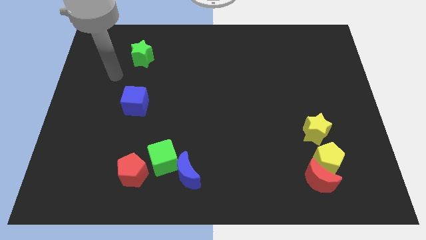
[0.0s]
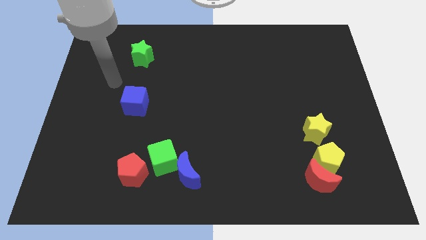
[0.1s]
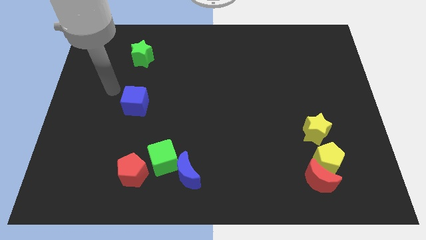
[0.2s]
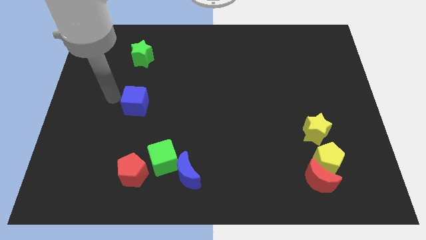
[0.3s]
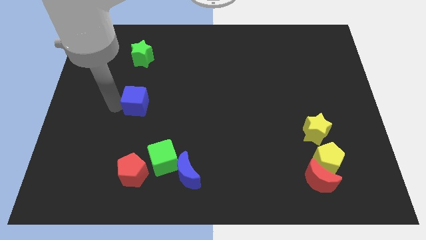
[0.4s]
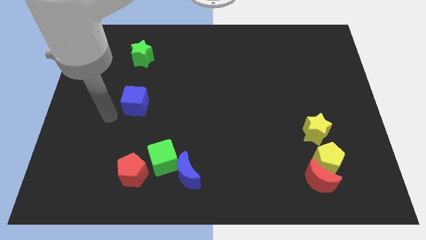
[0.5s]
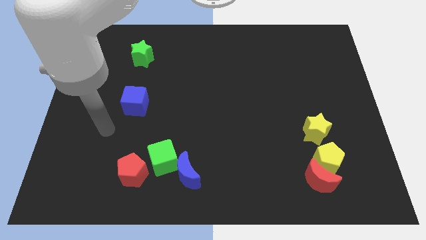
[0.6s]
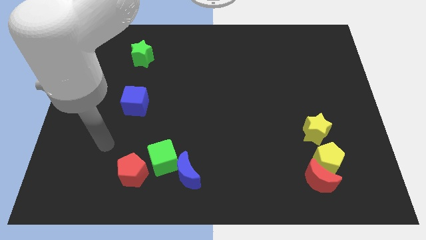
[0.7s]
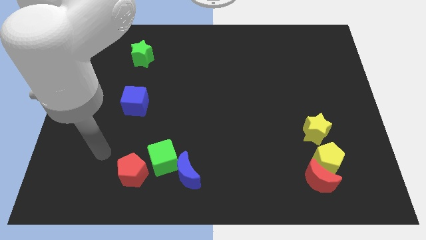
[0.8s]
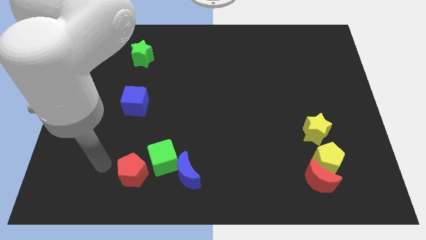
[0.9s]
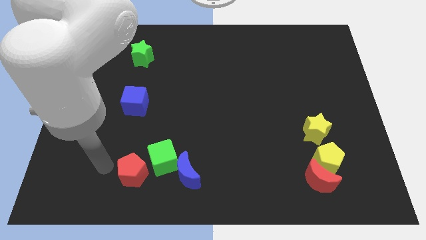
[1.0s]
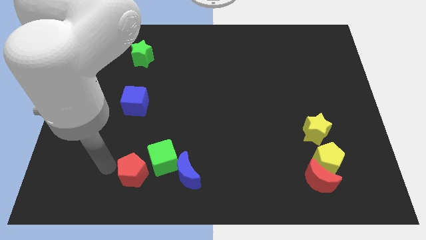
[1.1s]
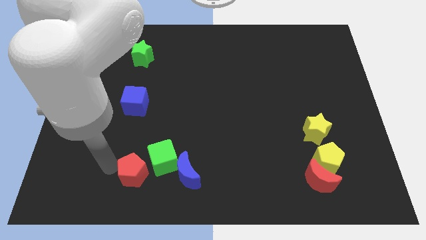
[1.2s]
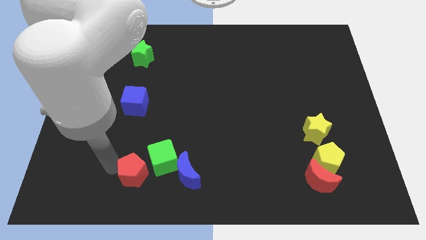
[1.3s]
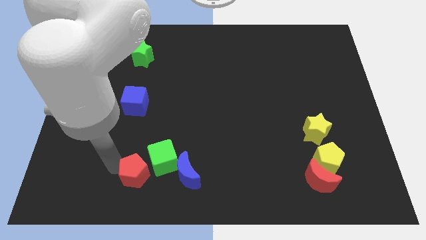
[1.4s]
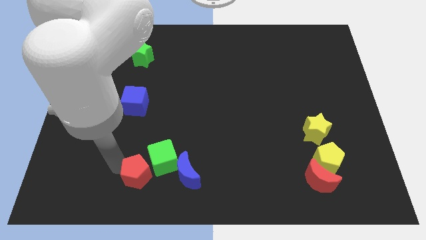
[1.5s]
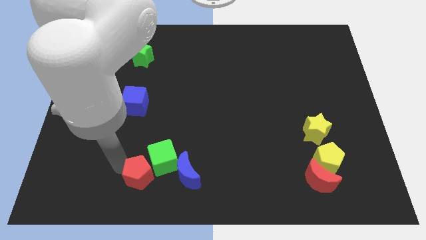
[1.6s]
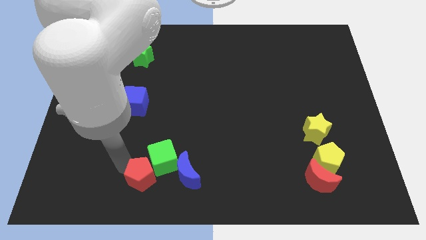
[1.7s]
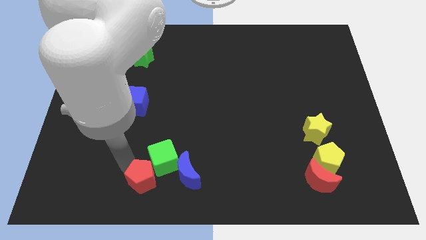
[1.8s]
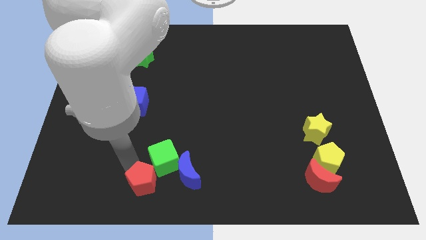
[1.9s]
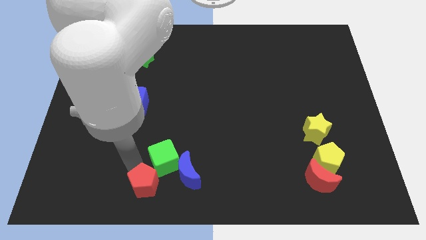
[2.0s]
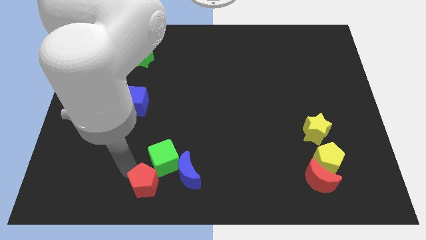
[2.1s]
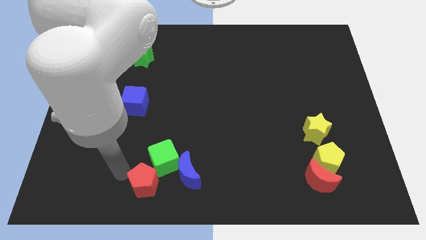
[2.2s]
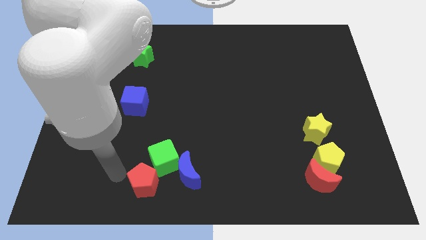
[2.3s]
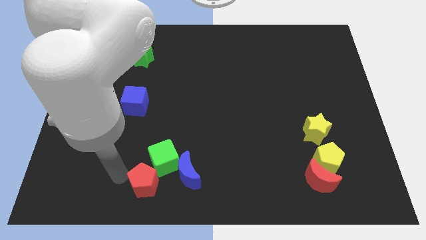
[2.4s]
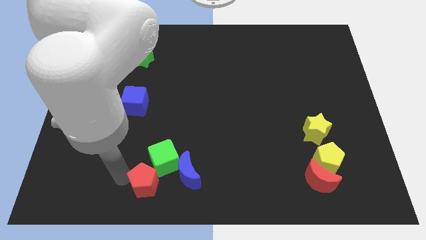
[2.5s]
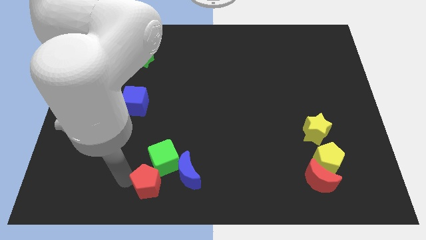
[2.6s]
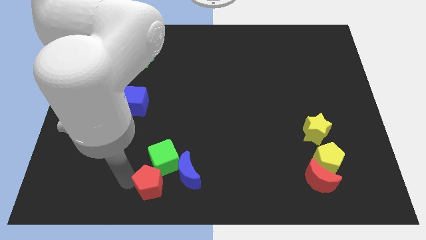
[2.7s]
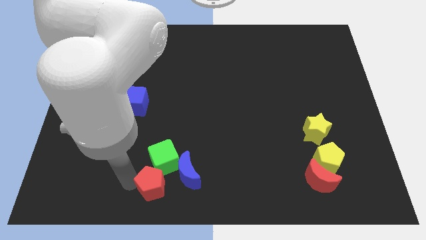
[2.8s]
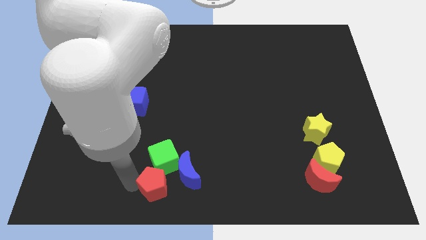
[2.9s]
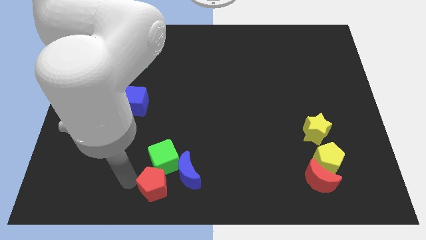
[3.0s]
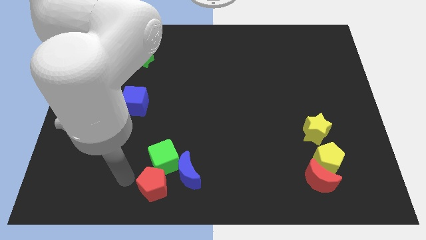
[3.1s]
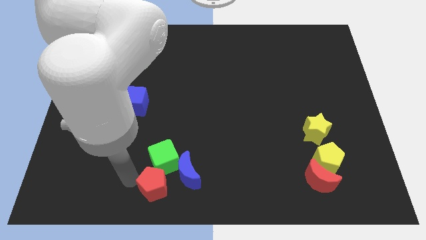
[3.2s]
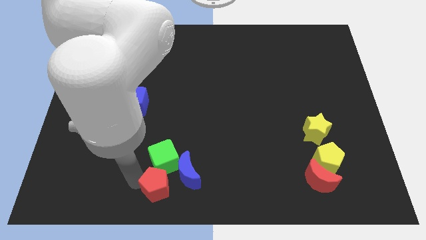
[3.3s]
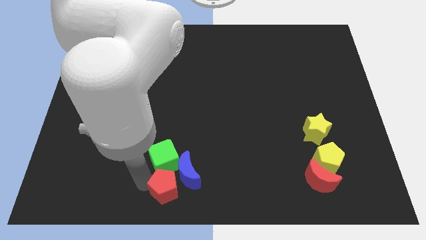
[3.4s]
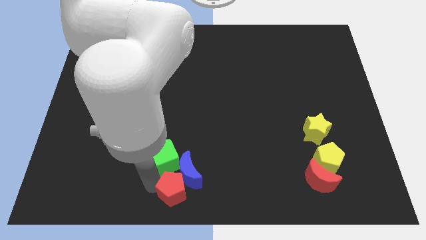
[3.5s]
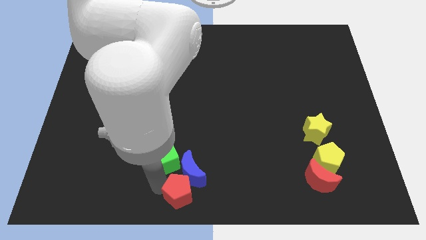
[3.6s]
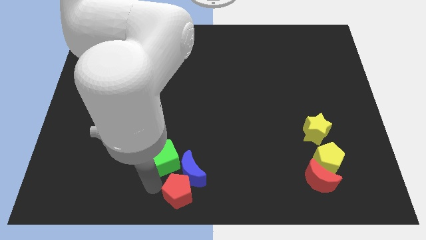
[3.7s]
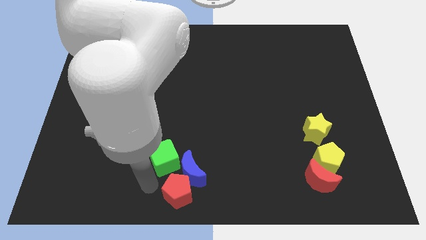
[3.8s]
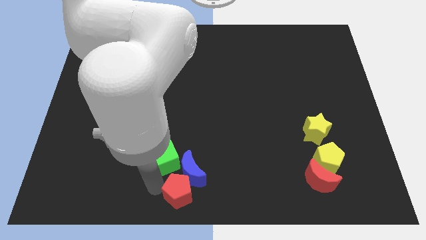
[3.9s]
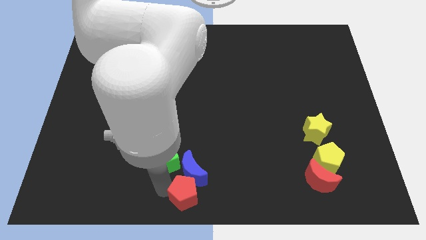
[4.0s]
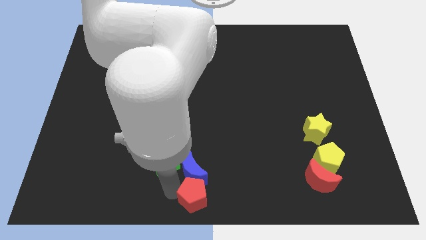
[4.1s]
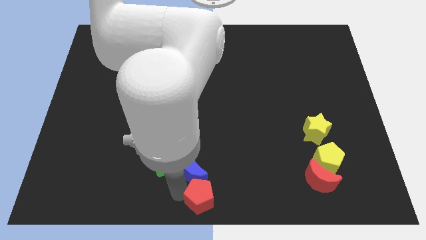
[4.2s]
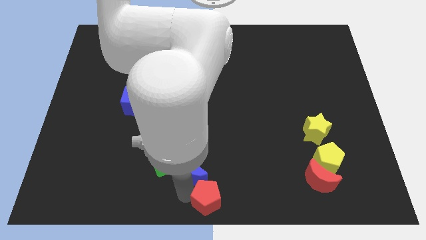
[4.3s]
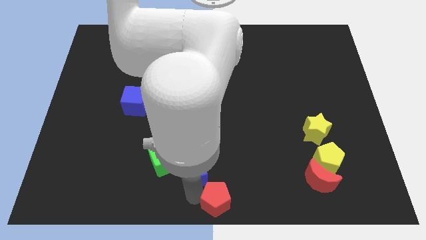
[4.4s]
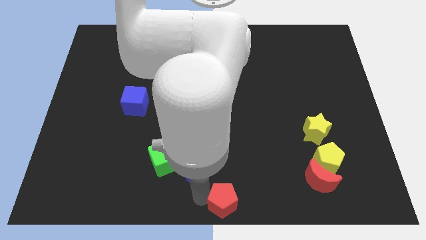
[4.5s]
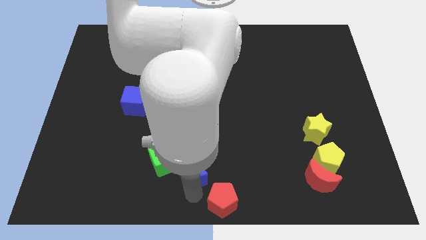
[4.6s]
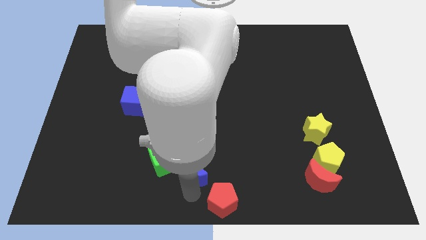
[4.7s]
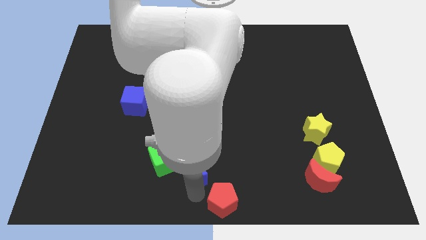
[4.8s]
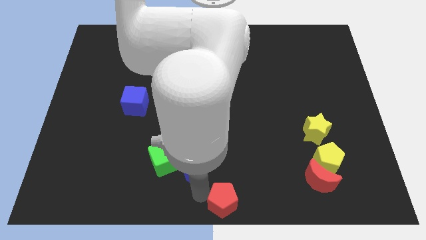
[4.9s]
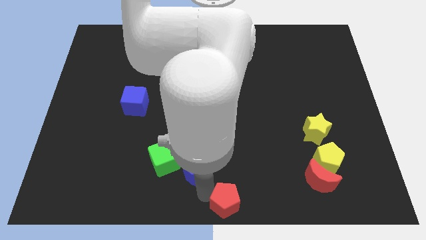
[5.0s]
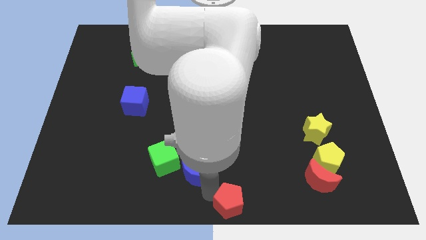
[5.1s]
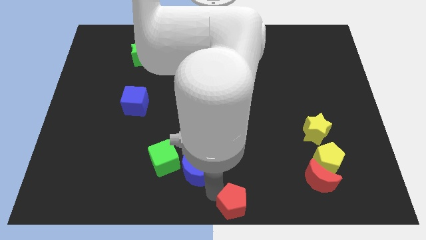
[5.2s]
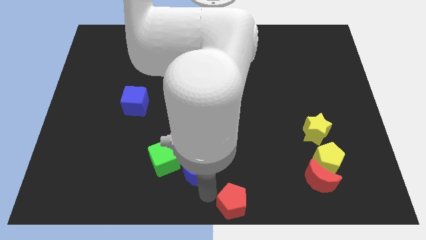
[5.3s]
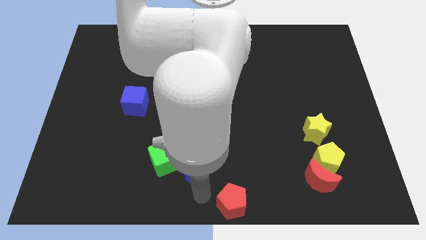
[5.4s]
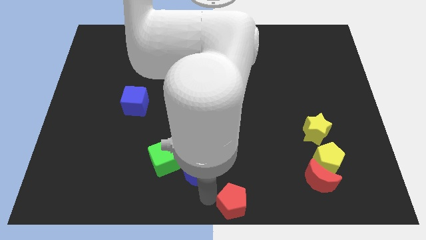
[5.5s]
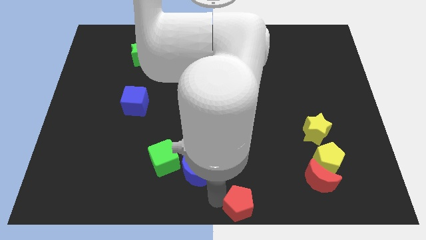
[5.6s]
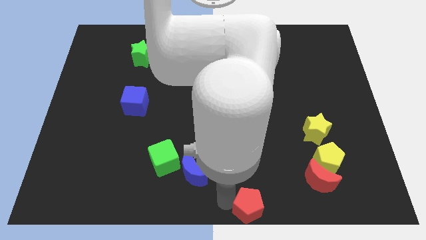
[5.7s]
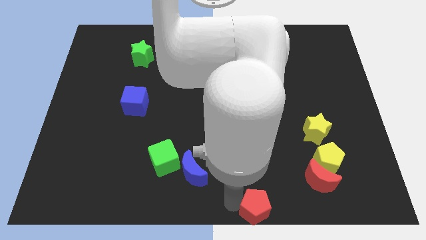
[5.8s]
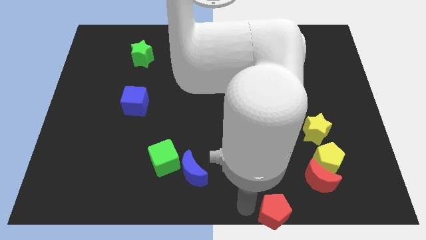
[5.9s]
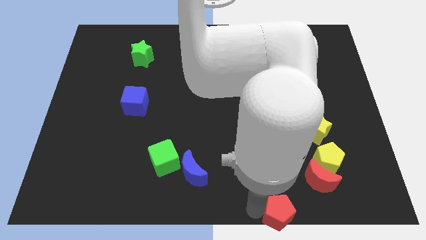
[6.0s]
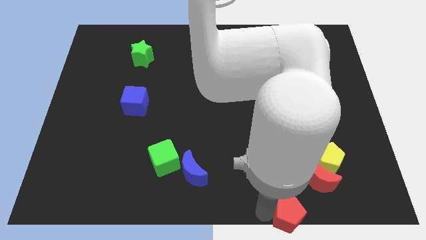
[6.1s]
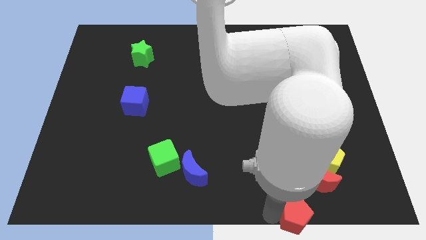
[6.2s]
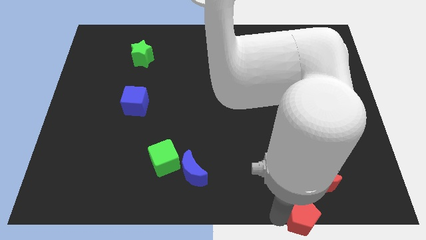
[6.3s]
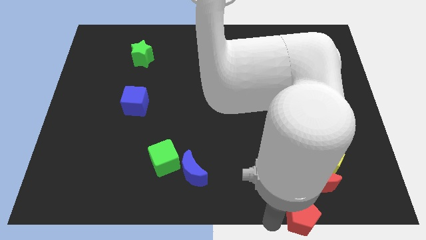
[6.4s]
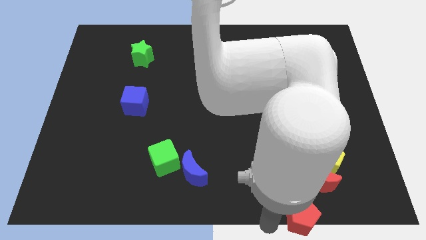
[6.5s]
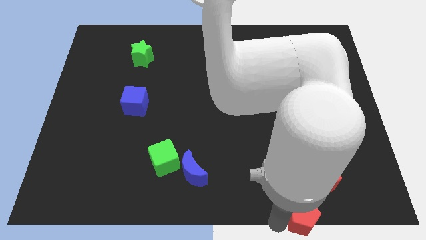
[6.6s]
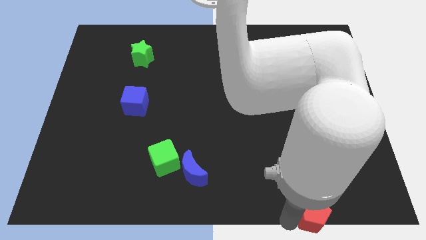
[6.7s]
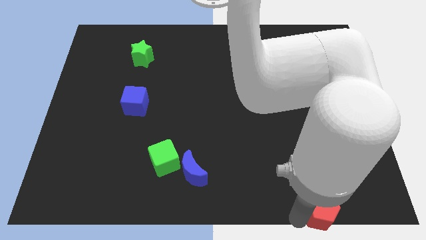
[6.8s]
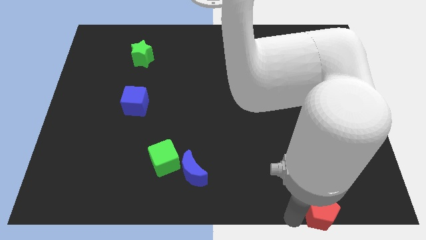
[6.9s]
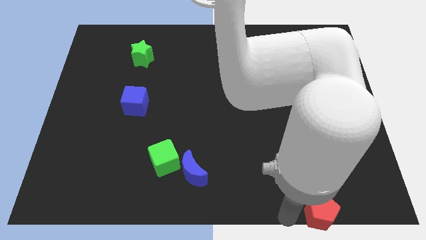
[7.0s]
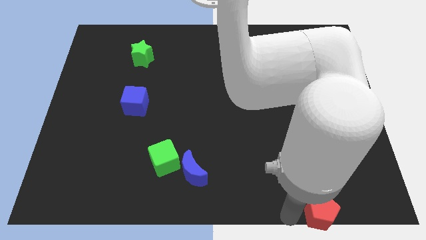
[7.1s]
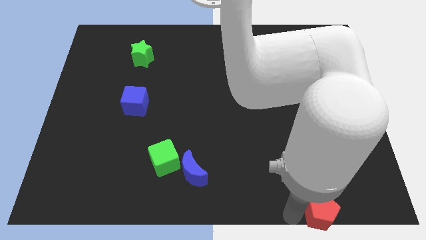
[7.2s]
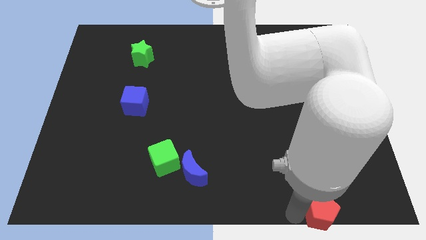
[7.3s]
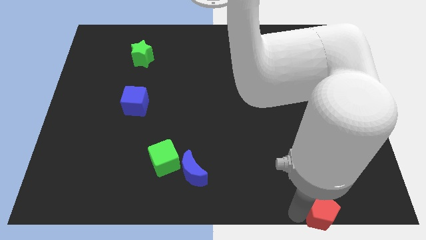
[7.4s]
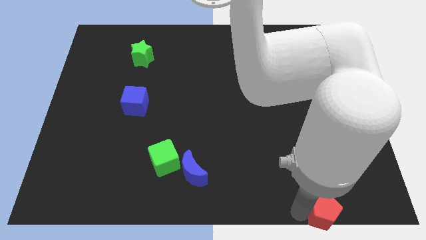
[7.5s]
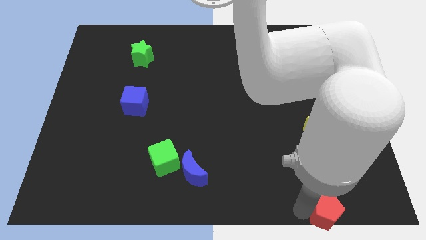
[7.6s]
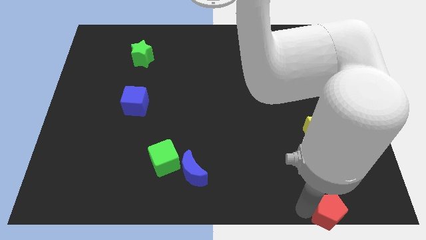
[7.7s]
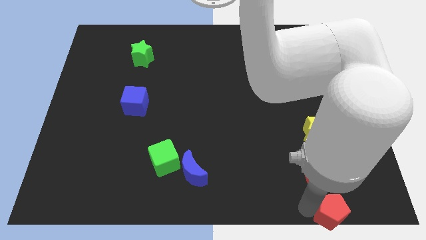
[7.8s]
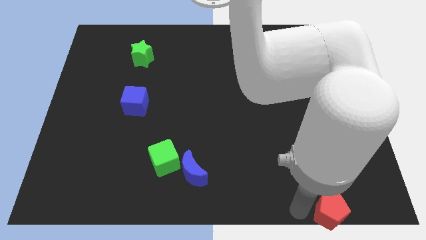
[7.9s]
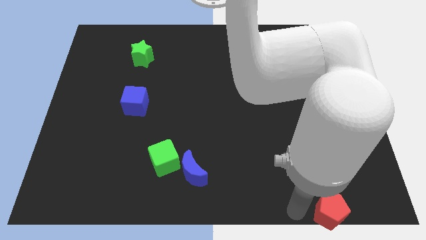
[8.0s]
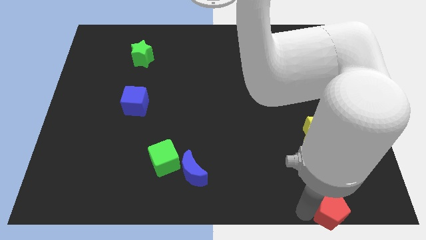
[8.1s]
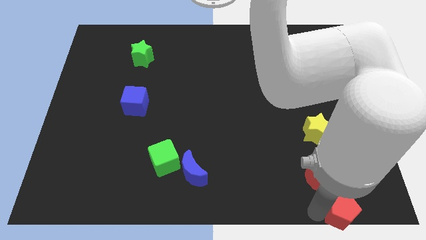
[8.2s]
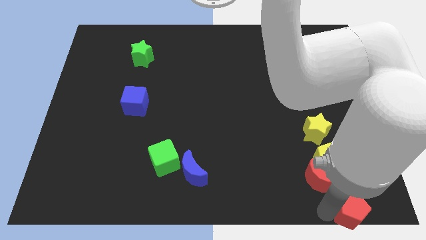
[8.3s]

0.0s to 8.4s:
push the red pentagon to the bottom right
